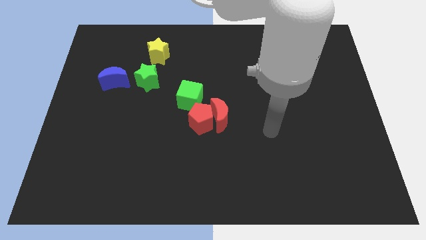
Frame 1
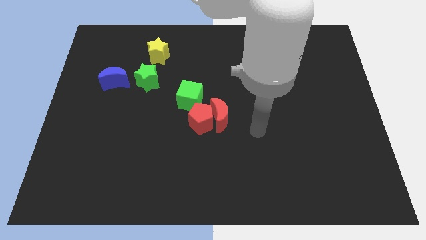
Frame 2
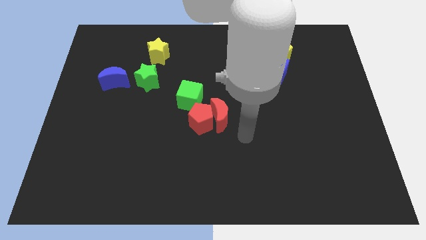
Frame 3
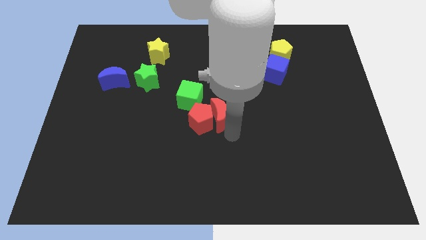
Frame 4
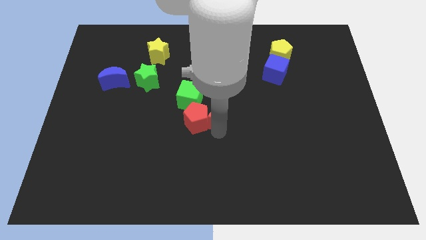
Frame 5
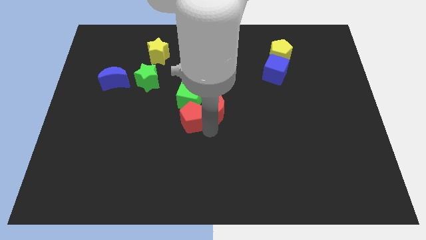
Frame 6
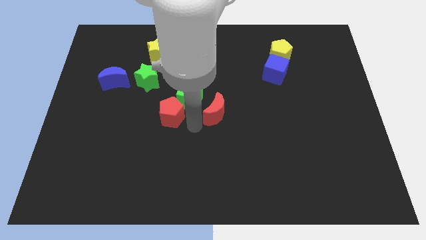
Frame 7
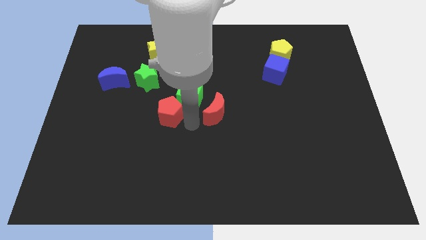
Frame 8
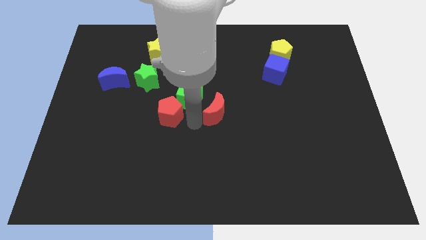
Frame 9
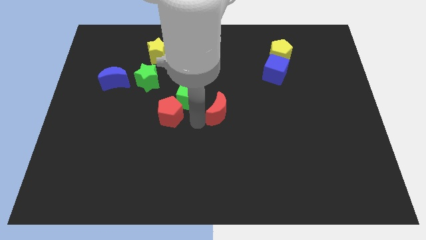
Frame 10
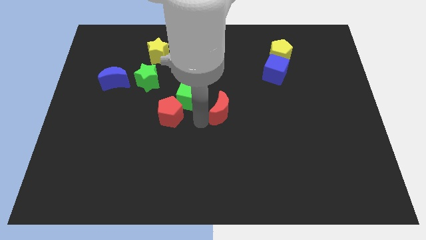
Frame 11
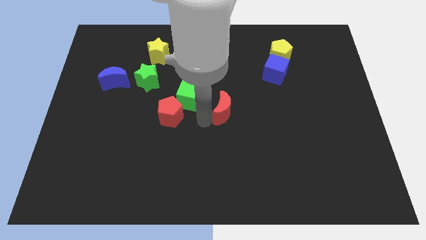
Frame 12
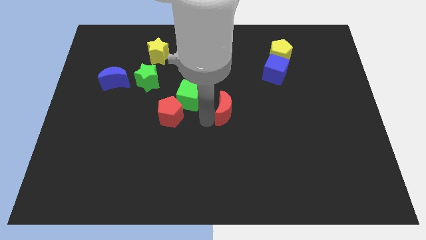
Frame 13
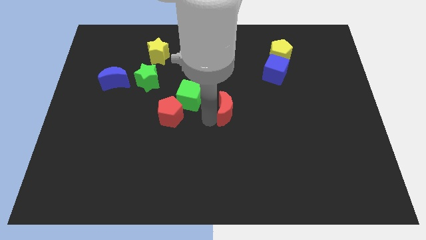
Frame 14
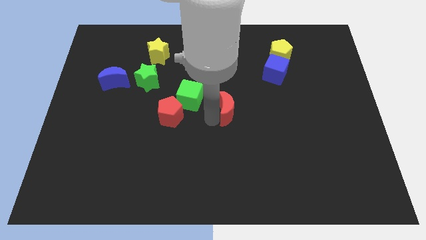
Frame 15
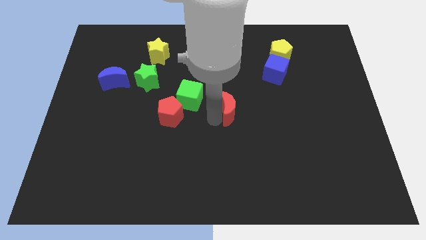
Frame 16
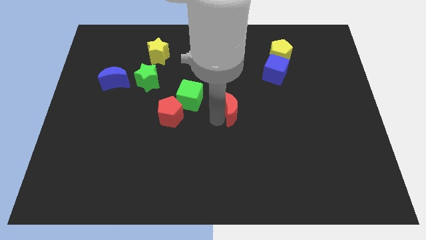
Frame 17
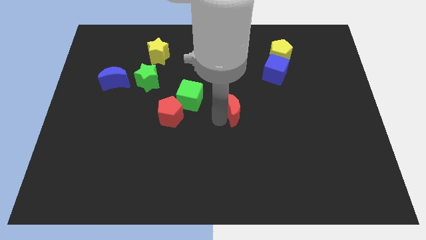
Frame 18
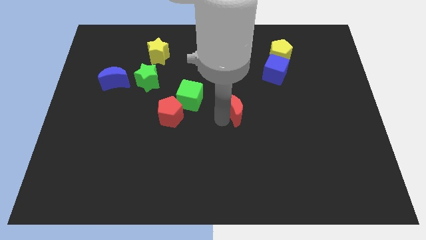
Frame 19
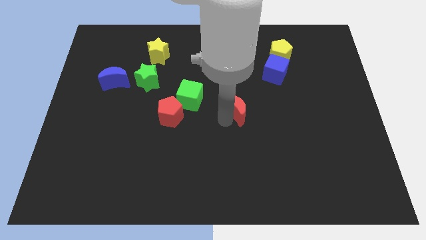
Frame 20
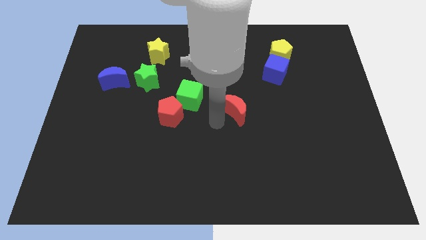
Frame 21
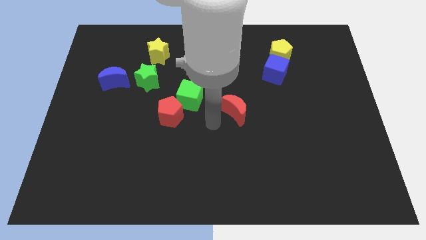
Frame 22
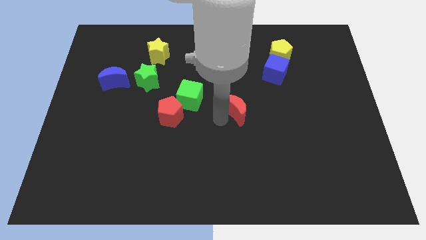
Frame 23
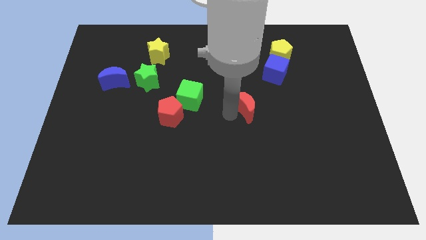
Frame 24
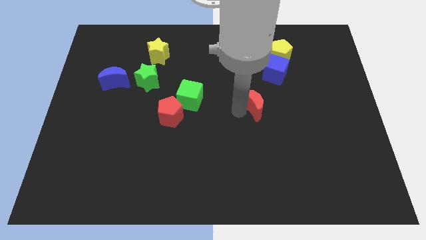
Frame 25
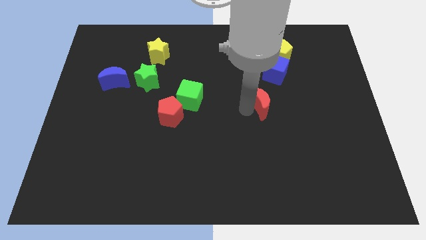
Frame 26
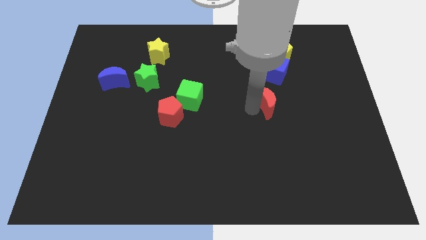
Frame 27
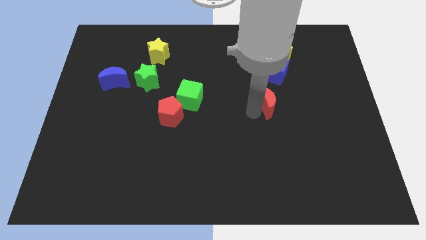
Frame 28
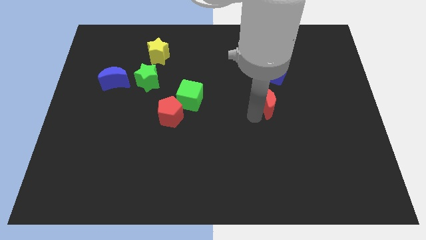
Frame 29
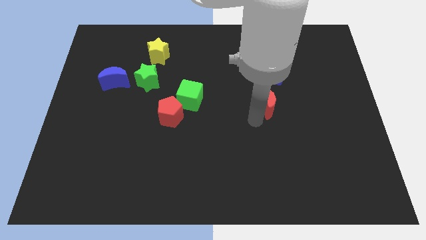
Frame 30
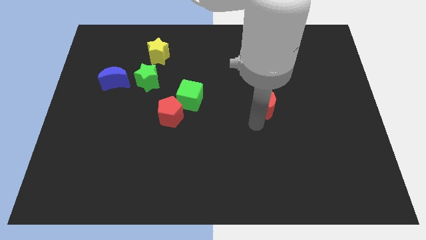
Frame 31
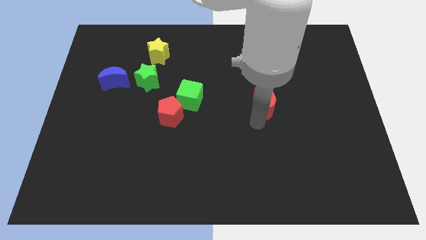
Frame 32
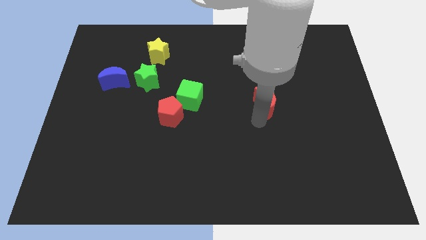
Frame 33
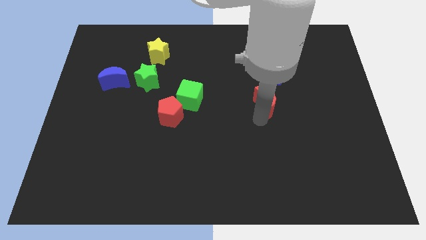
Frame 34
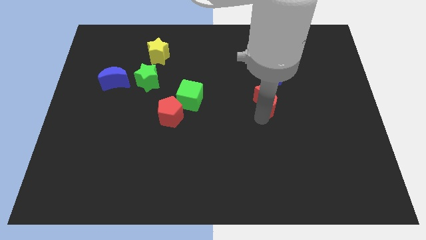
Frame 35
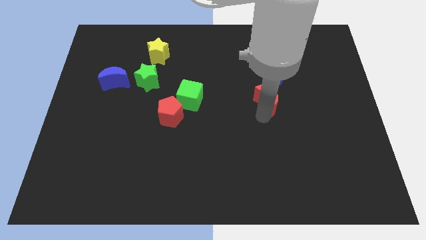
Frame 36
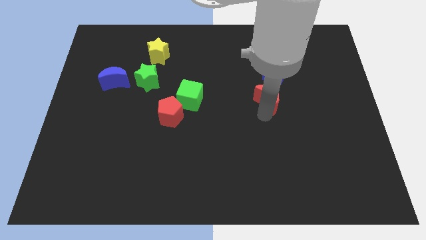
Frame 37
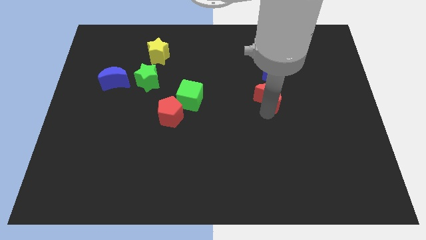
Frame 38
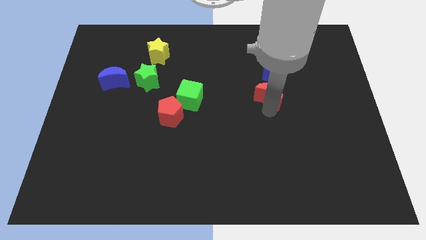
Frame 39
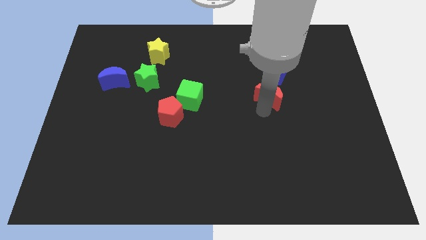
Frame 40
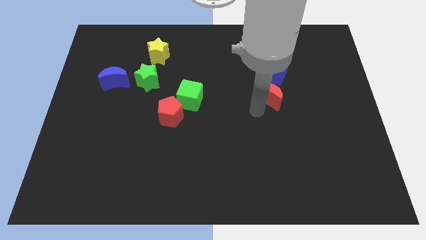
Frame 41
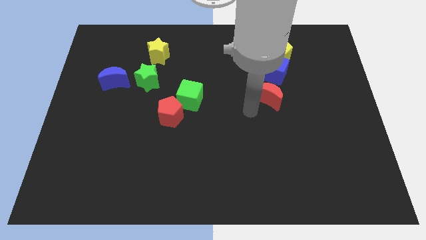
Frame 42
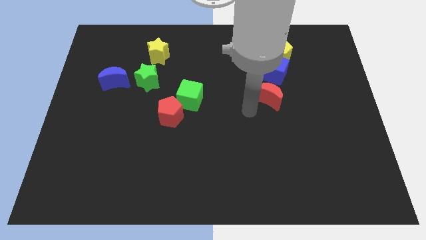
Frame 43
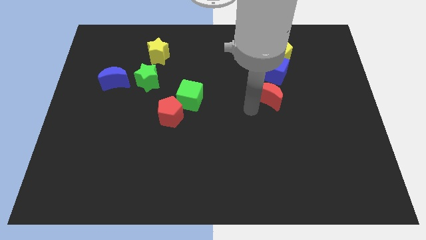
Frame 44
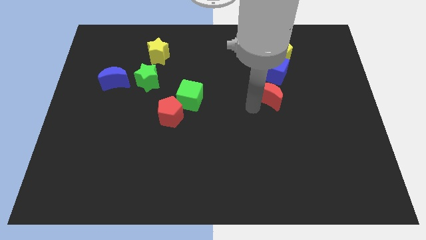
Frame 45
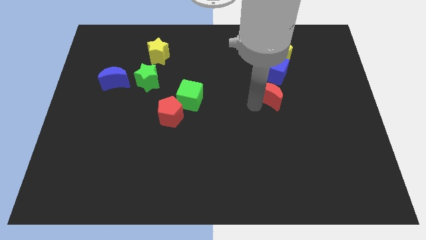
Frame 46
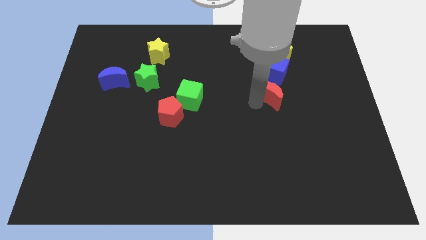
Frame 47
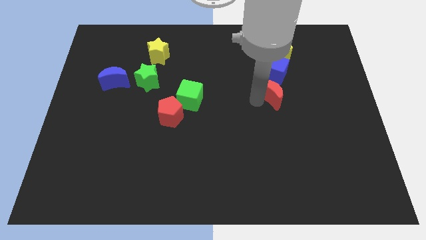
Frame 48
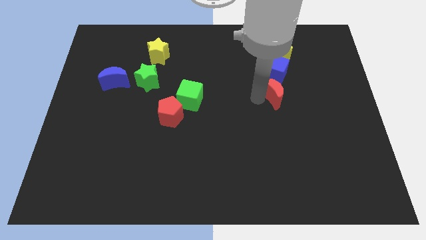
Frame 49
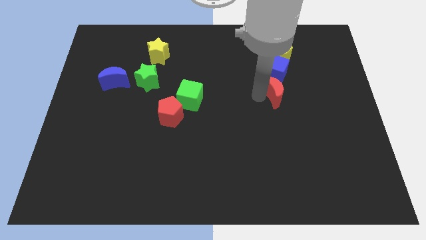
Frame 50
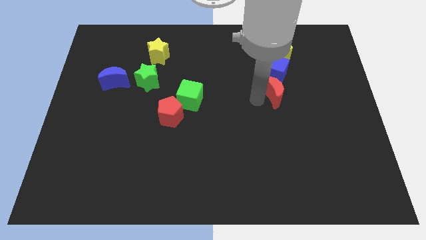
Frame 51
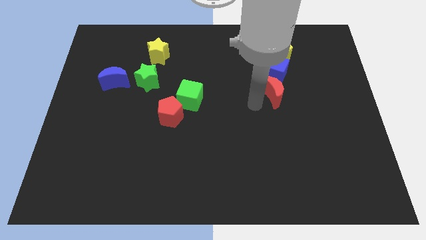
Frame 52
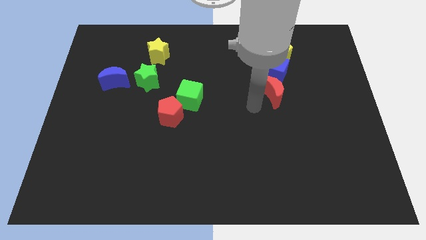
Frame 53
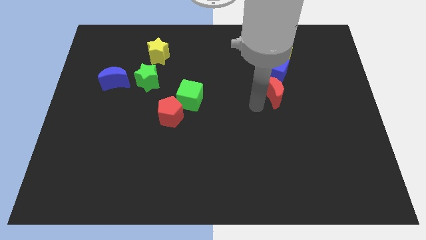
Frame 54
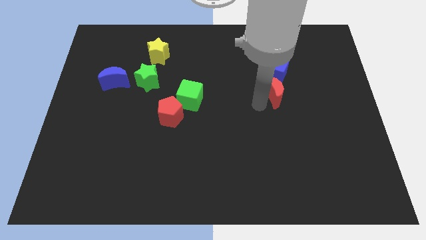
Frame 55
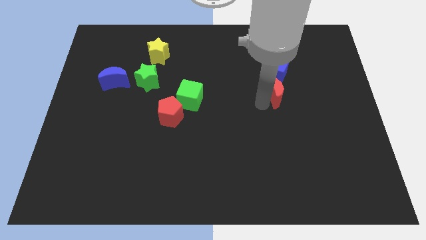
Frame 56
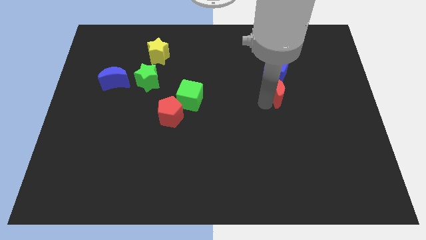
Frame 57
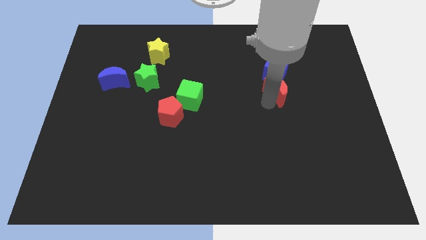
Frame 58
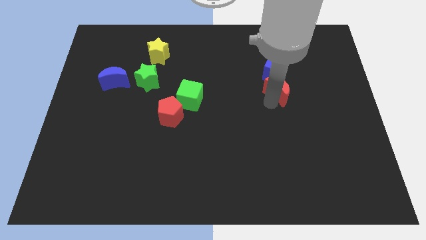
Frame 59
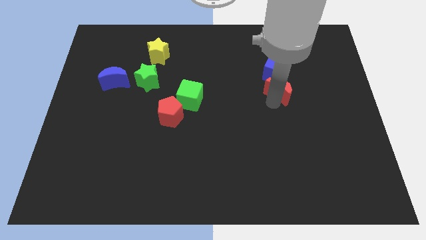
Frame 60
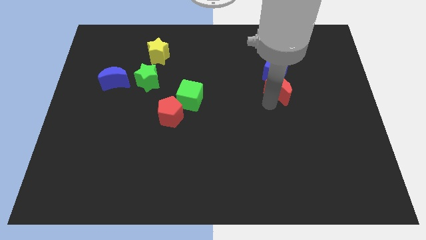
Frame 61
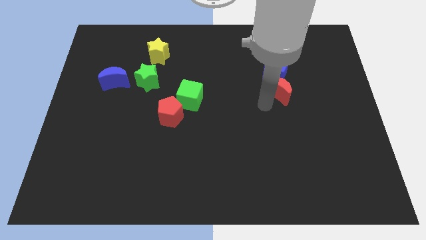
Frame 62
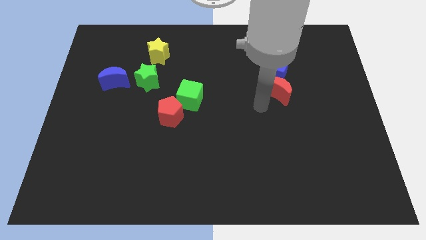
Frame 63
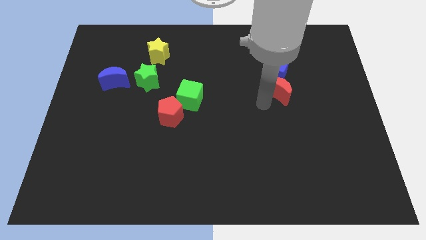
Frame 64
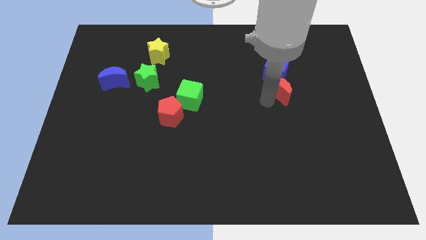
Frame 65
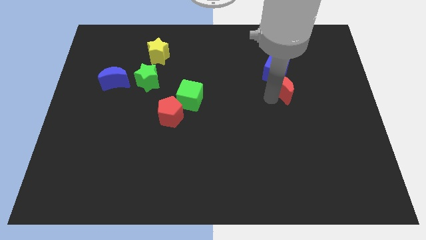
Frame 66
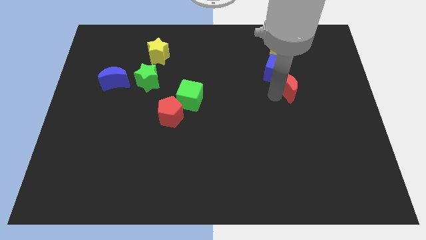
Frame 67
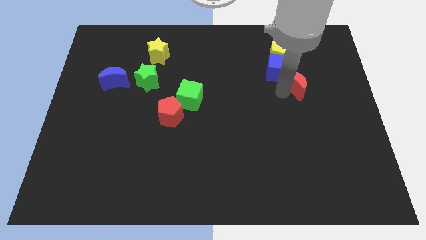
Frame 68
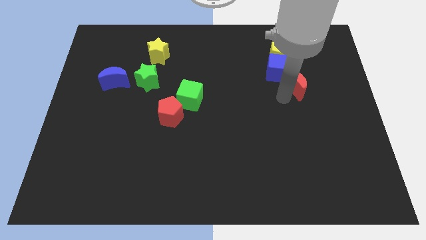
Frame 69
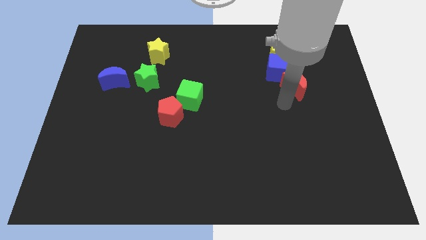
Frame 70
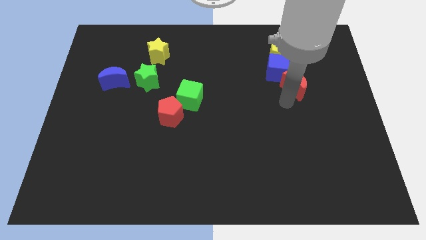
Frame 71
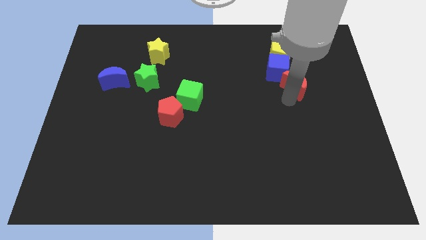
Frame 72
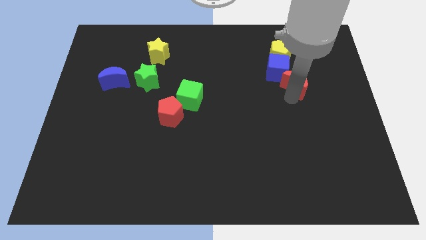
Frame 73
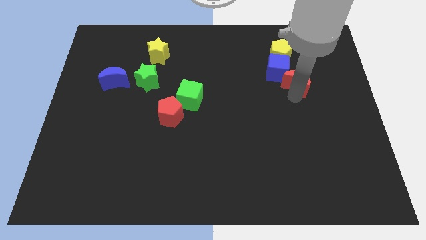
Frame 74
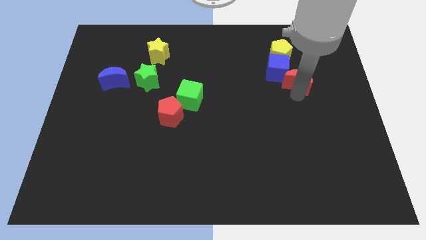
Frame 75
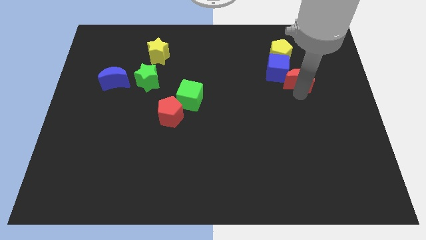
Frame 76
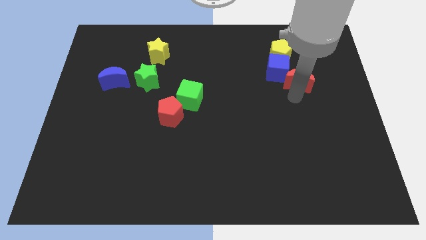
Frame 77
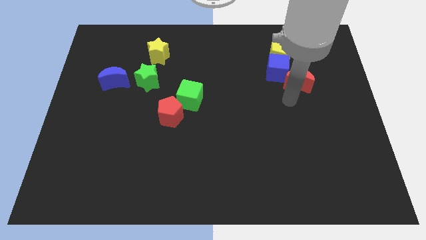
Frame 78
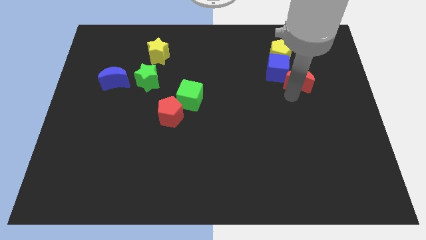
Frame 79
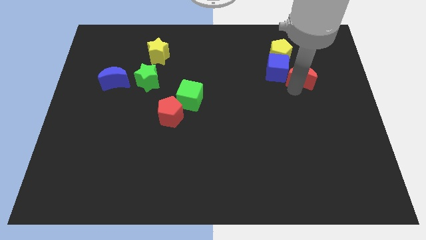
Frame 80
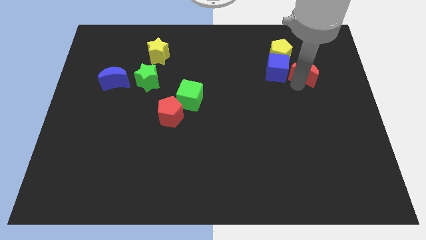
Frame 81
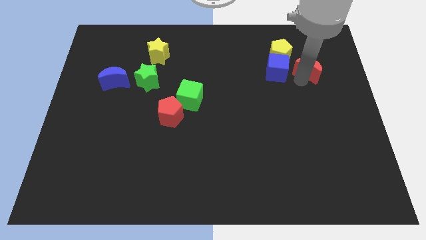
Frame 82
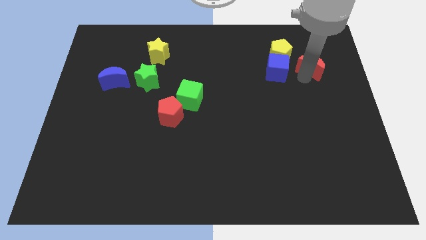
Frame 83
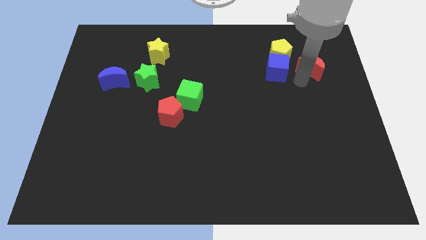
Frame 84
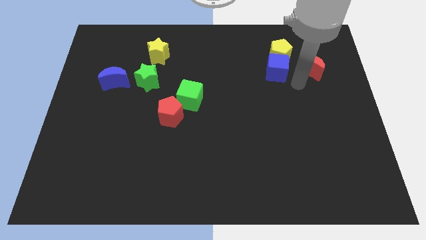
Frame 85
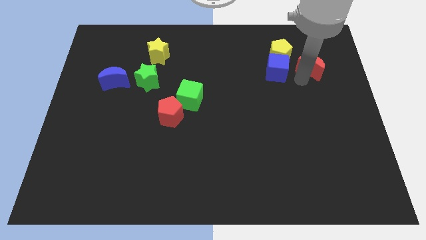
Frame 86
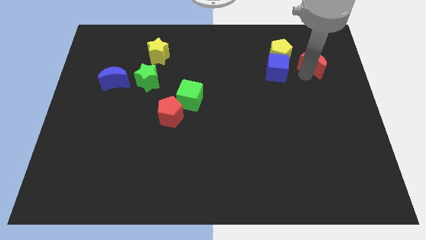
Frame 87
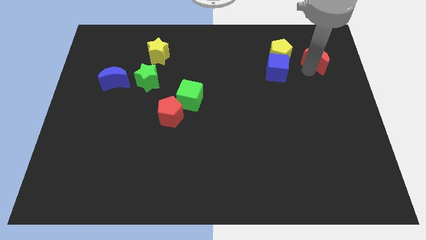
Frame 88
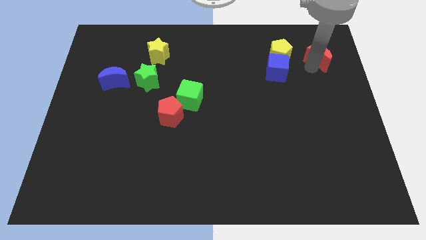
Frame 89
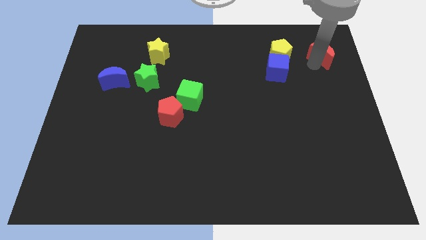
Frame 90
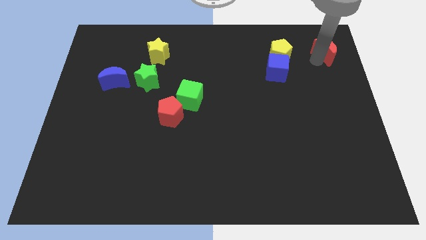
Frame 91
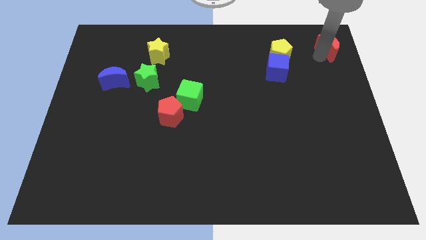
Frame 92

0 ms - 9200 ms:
slide the red moon to the top right corner
